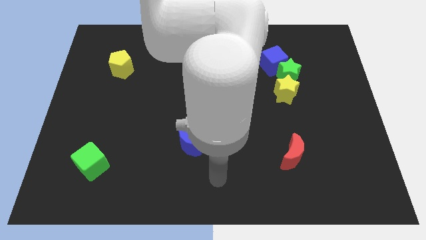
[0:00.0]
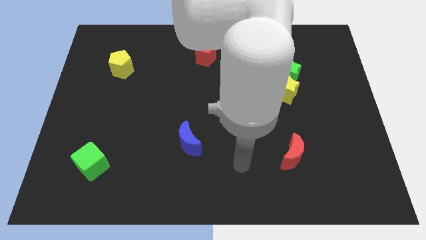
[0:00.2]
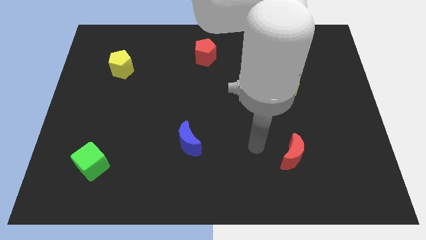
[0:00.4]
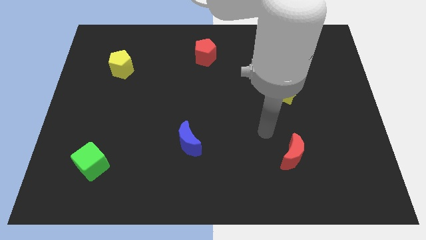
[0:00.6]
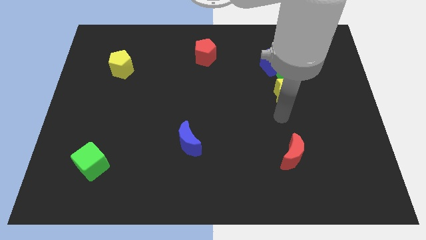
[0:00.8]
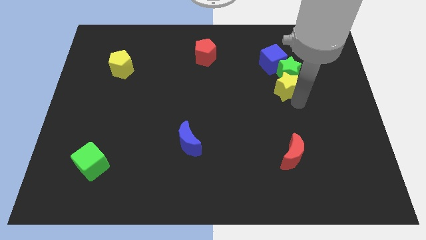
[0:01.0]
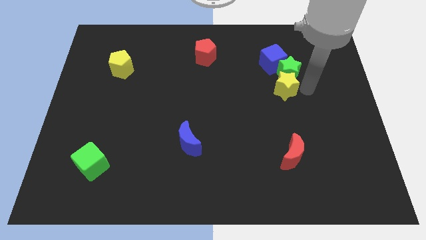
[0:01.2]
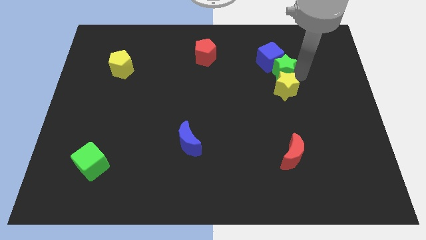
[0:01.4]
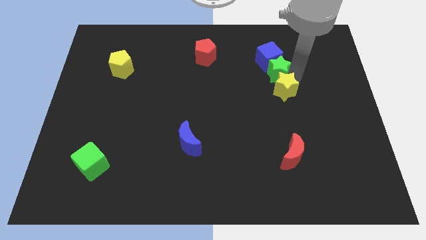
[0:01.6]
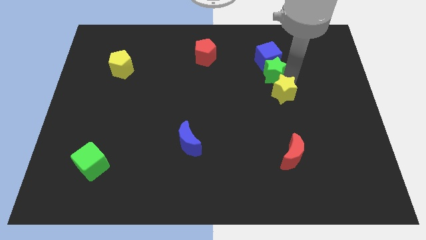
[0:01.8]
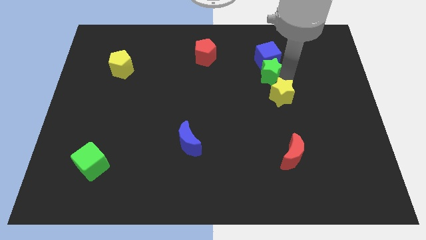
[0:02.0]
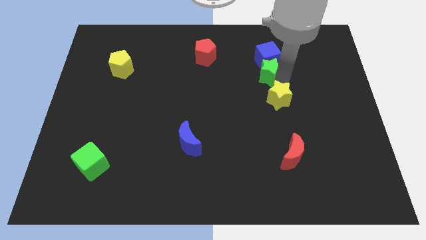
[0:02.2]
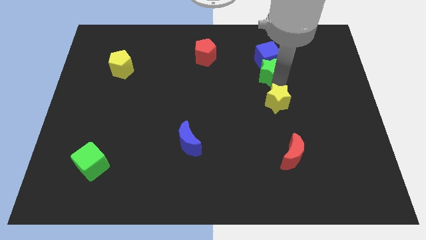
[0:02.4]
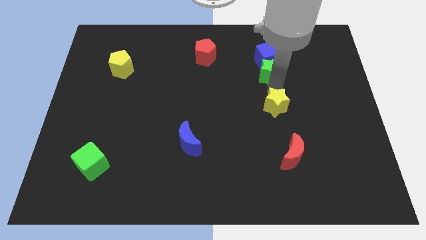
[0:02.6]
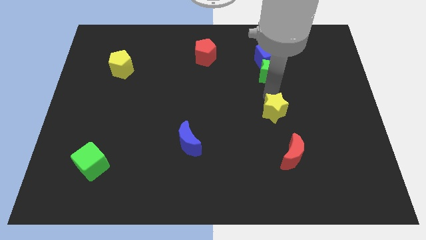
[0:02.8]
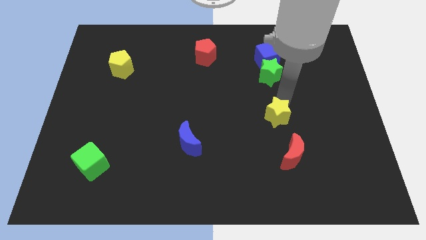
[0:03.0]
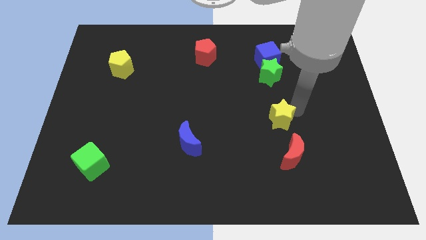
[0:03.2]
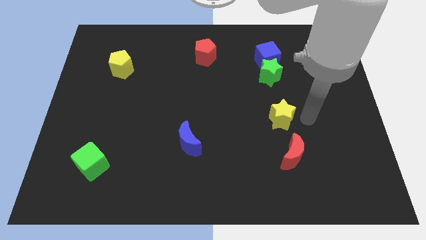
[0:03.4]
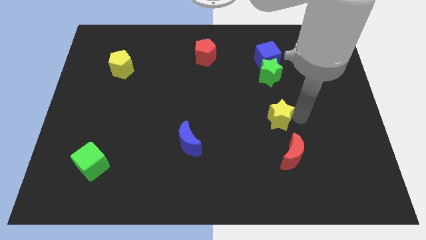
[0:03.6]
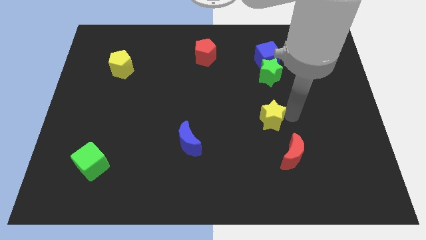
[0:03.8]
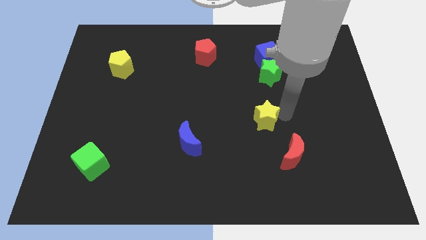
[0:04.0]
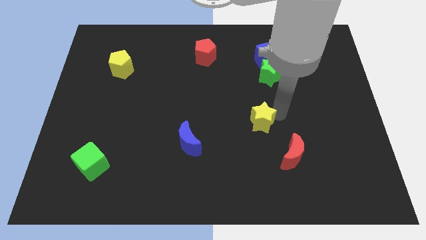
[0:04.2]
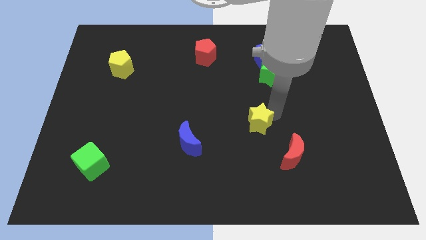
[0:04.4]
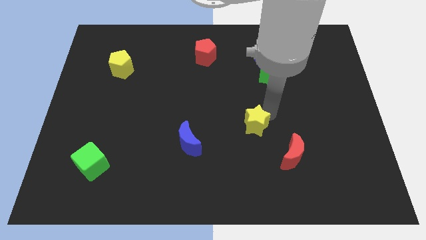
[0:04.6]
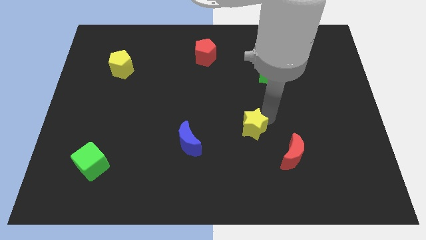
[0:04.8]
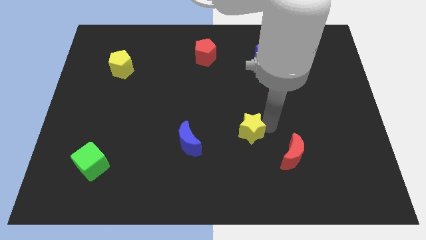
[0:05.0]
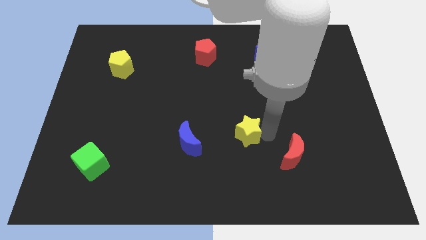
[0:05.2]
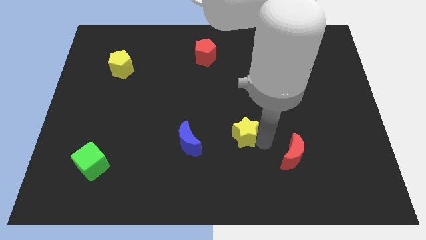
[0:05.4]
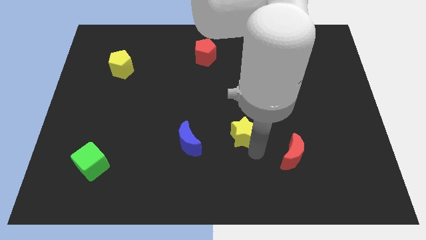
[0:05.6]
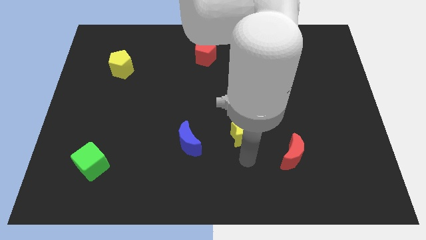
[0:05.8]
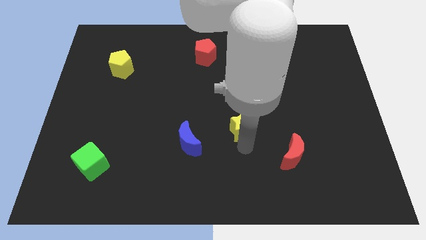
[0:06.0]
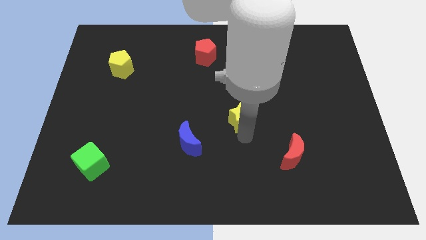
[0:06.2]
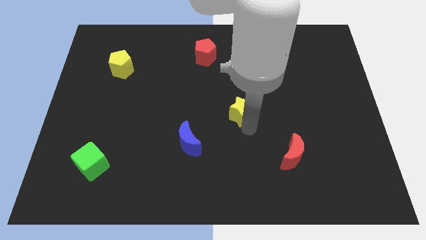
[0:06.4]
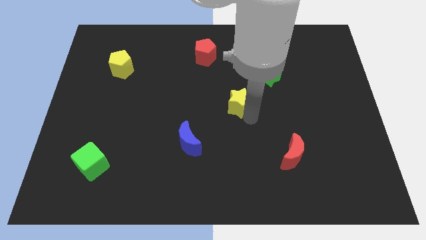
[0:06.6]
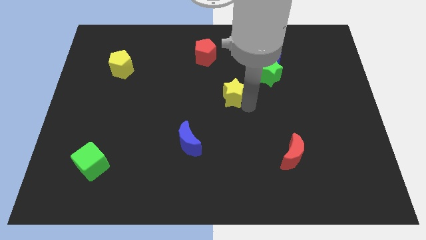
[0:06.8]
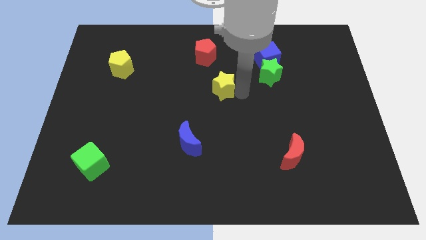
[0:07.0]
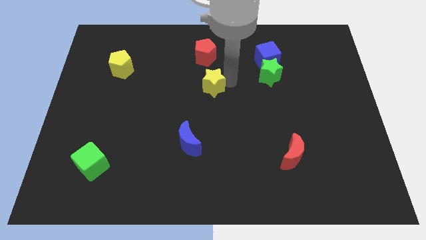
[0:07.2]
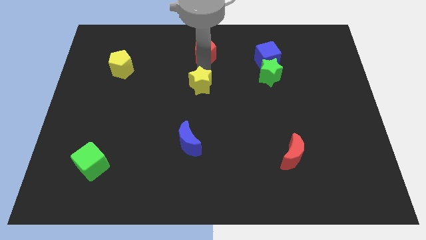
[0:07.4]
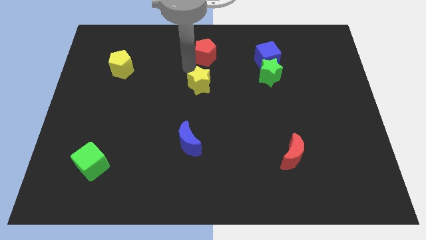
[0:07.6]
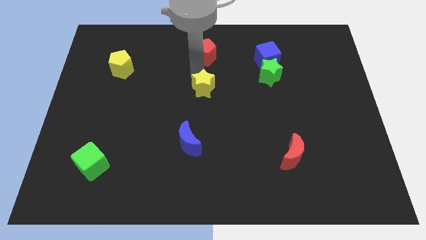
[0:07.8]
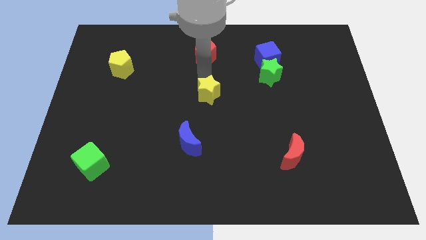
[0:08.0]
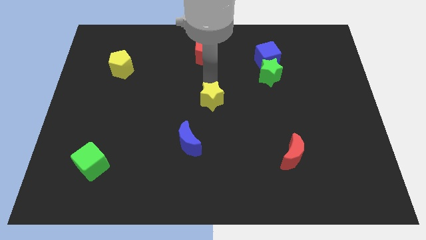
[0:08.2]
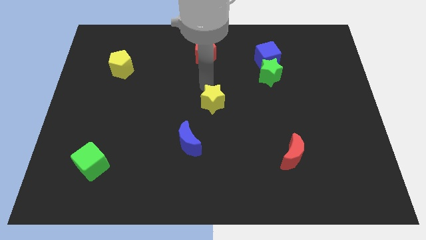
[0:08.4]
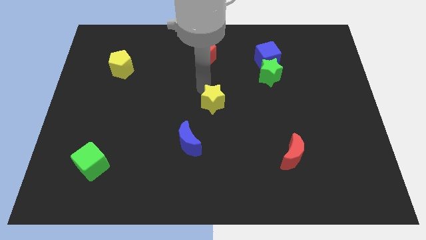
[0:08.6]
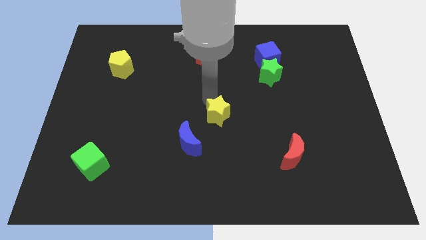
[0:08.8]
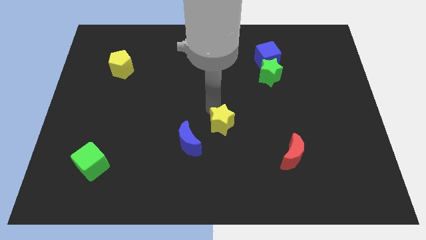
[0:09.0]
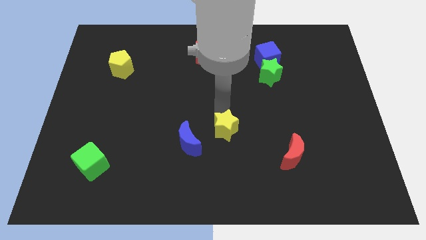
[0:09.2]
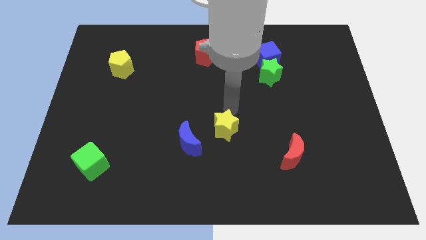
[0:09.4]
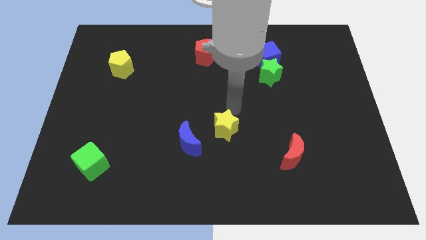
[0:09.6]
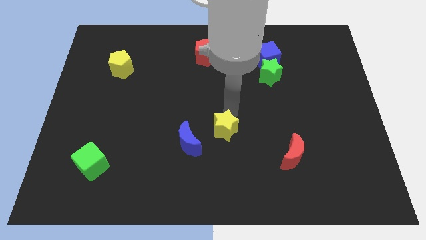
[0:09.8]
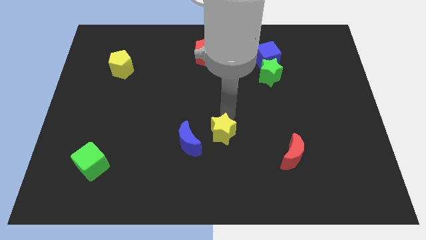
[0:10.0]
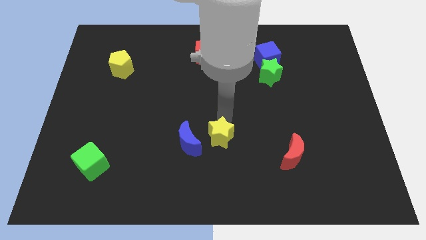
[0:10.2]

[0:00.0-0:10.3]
push the yellow star downwards and to the left

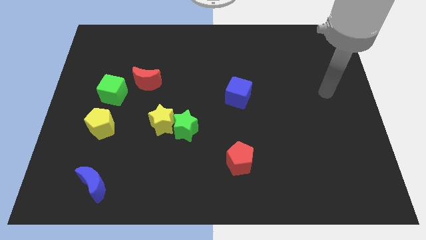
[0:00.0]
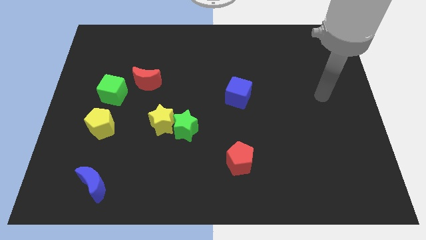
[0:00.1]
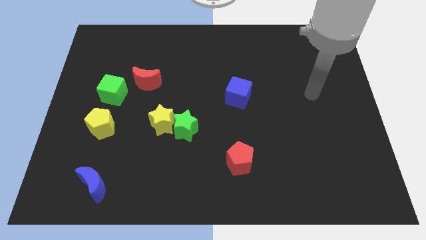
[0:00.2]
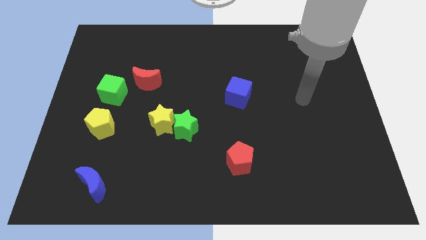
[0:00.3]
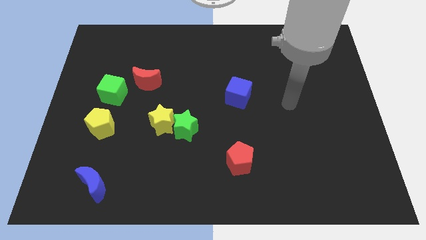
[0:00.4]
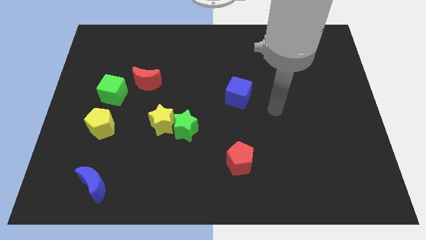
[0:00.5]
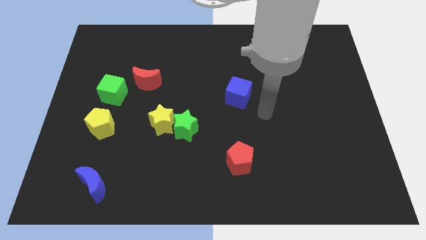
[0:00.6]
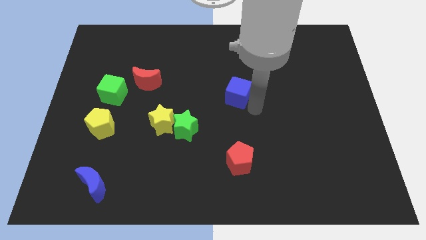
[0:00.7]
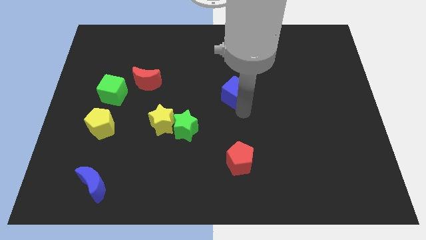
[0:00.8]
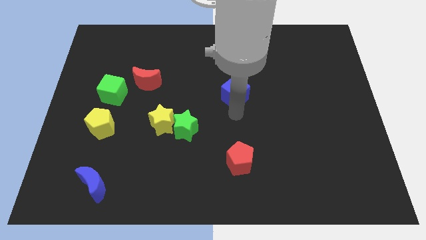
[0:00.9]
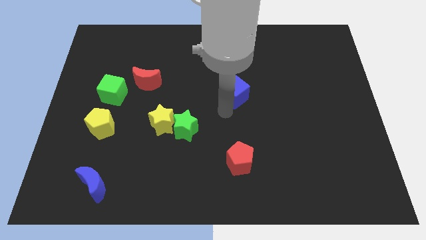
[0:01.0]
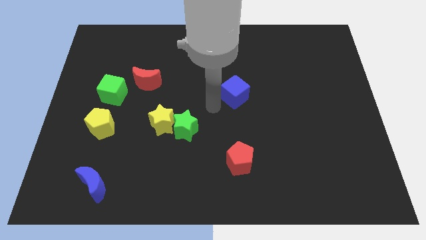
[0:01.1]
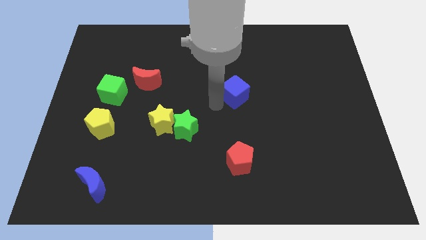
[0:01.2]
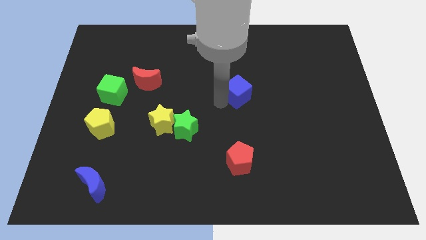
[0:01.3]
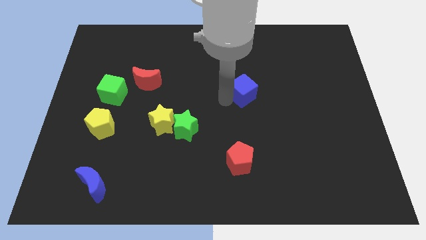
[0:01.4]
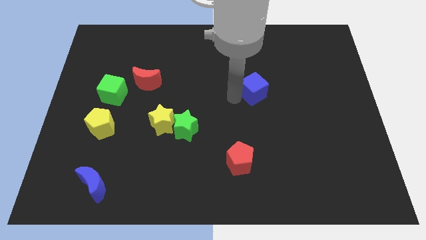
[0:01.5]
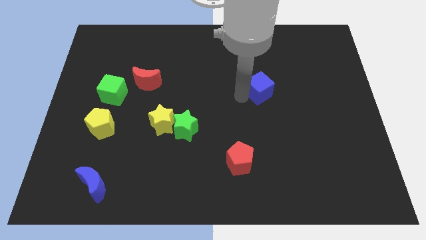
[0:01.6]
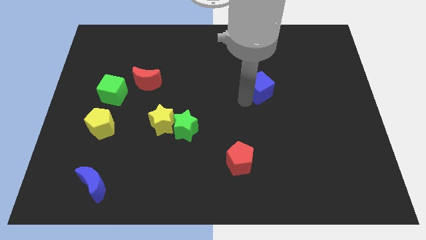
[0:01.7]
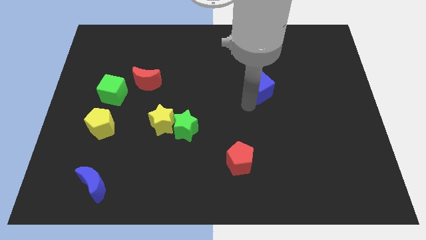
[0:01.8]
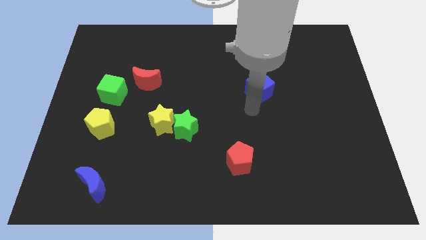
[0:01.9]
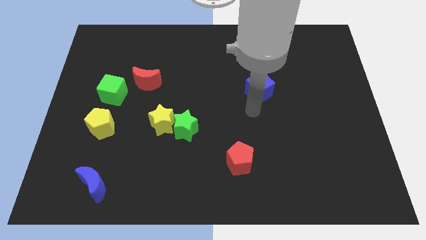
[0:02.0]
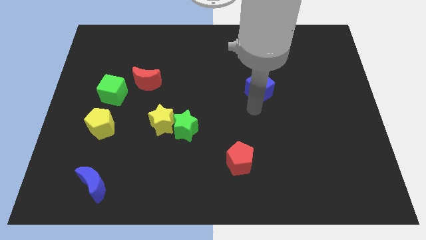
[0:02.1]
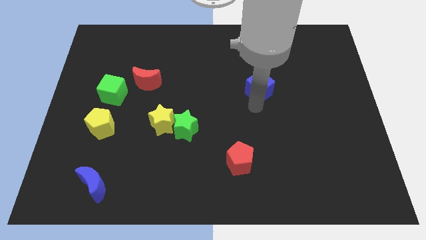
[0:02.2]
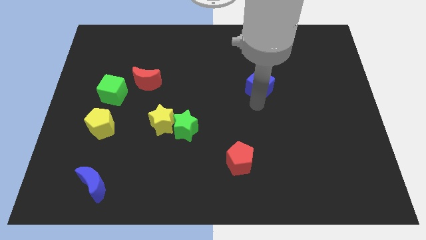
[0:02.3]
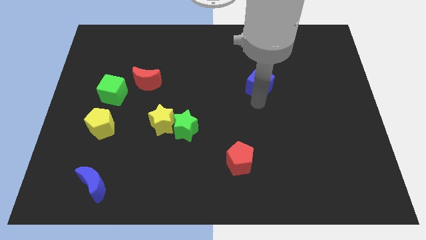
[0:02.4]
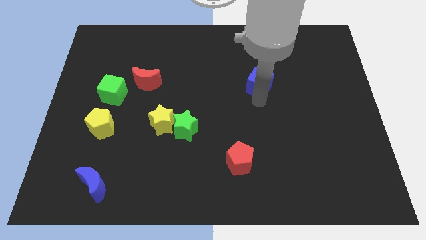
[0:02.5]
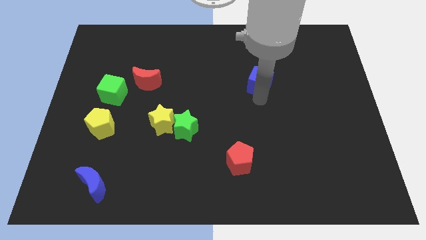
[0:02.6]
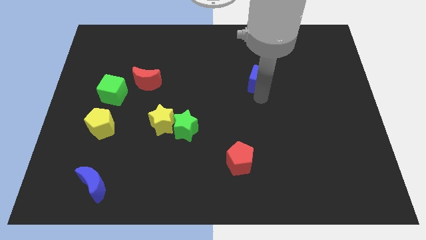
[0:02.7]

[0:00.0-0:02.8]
slightly move the blue cube up and to the right diagonally
